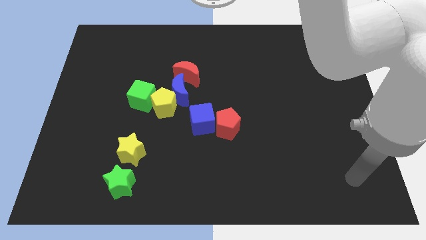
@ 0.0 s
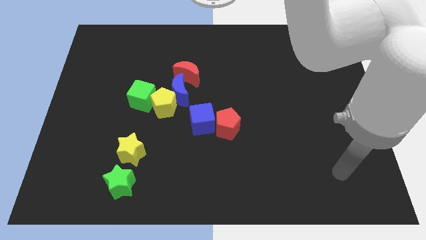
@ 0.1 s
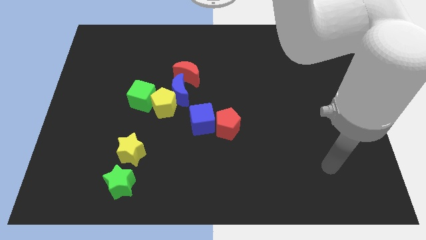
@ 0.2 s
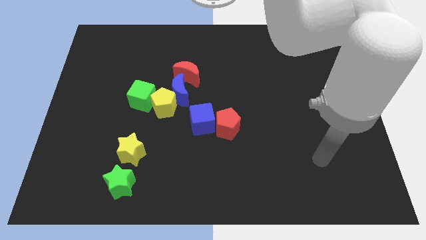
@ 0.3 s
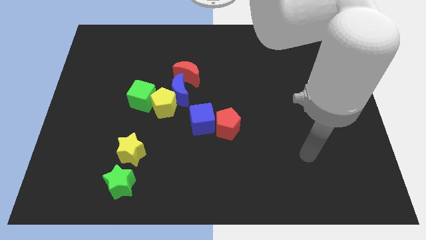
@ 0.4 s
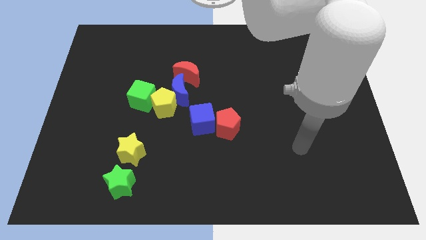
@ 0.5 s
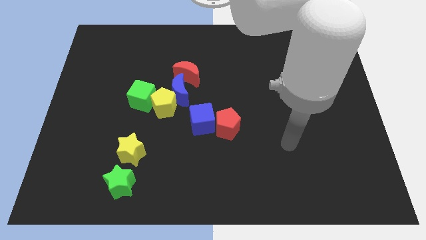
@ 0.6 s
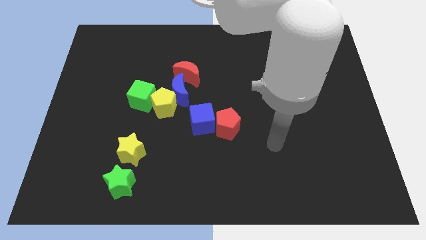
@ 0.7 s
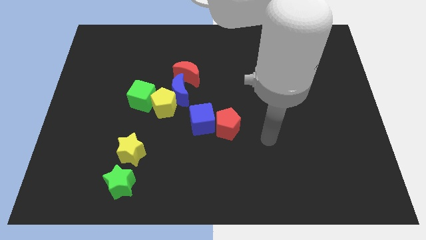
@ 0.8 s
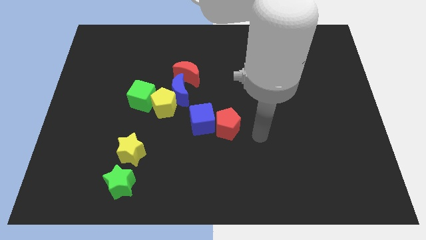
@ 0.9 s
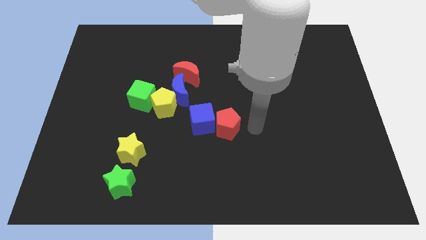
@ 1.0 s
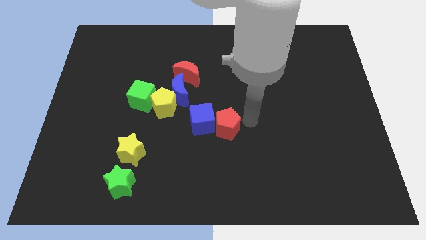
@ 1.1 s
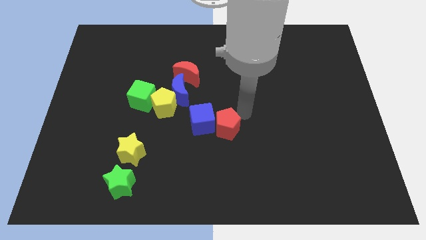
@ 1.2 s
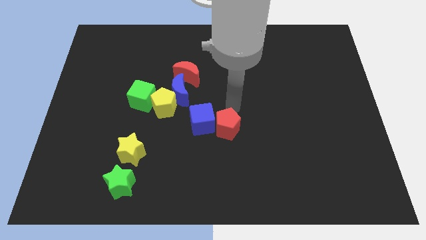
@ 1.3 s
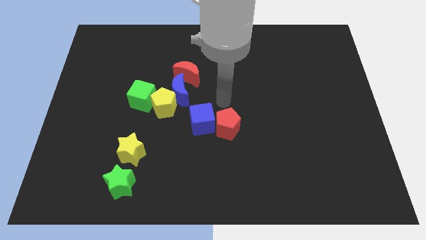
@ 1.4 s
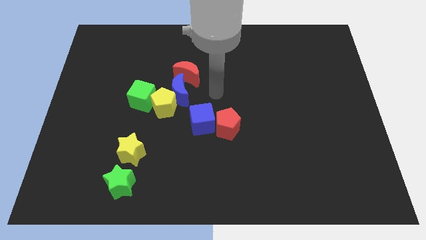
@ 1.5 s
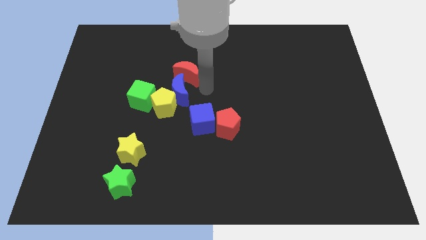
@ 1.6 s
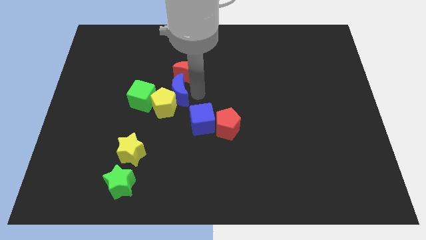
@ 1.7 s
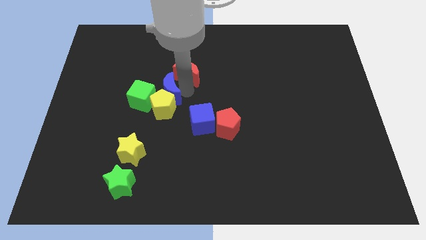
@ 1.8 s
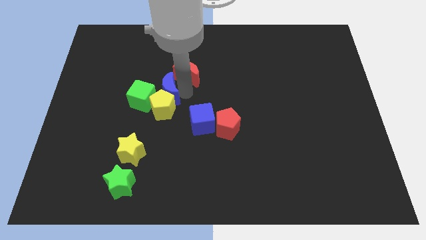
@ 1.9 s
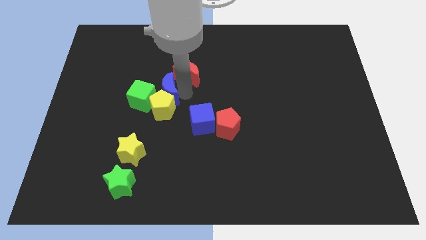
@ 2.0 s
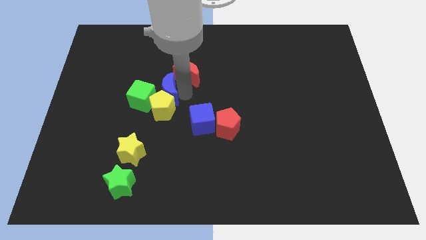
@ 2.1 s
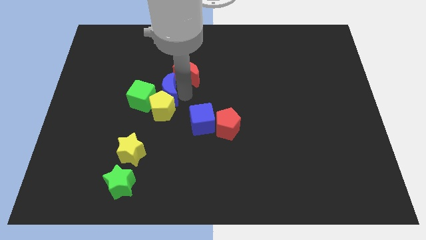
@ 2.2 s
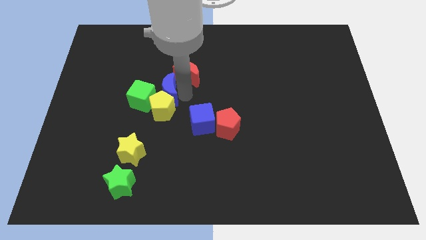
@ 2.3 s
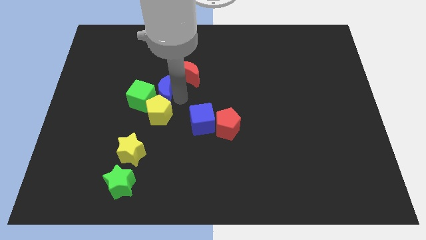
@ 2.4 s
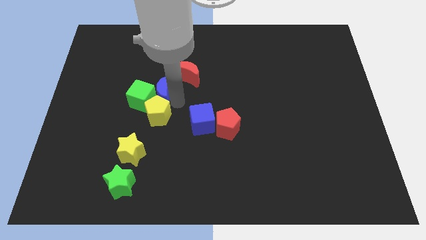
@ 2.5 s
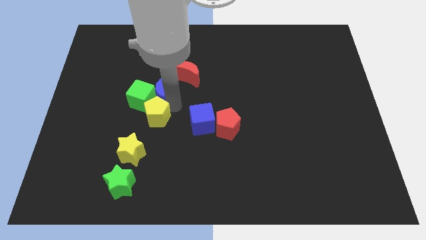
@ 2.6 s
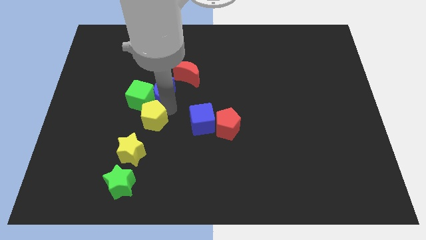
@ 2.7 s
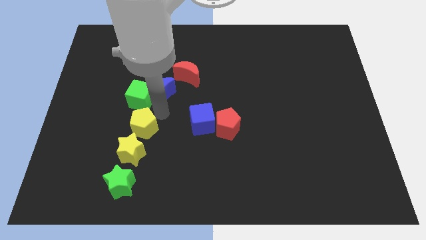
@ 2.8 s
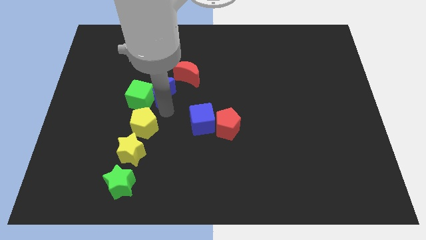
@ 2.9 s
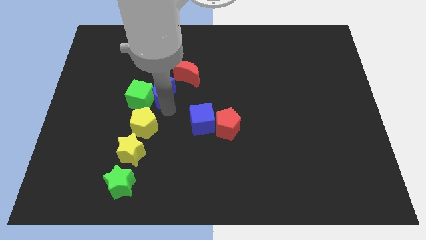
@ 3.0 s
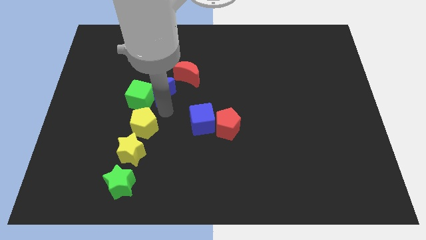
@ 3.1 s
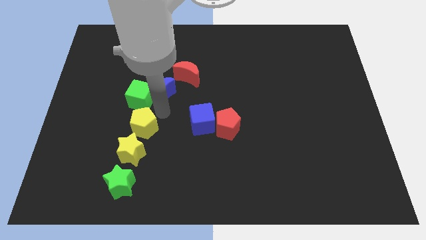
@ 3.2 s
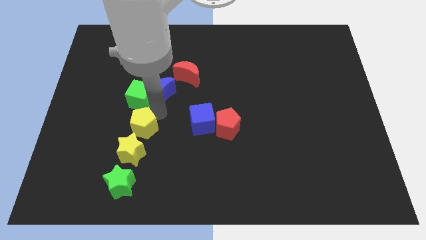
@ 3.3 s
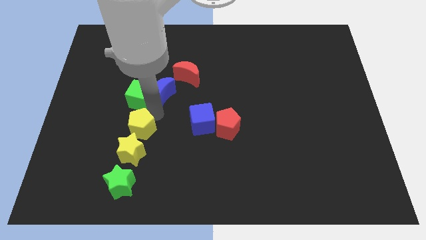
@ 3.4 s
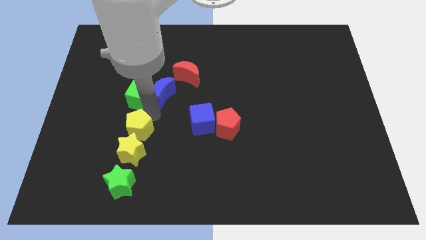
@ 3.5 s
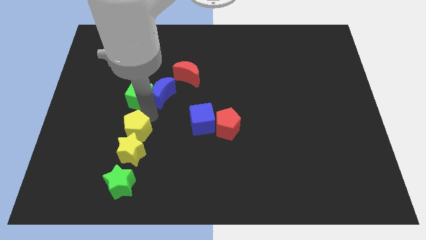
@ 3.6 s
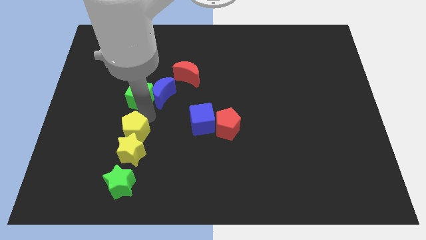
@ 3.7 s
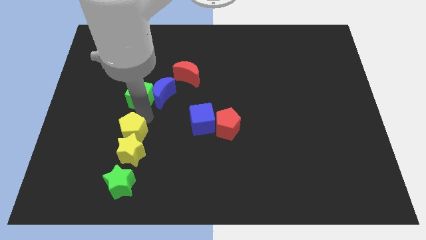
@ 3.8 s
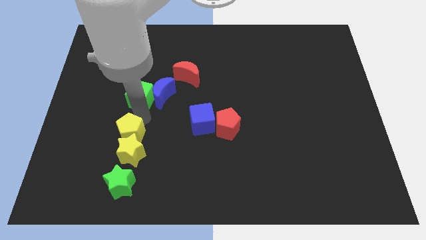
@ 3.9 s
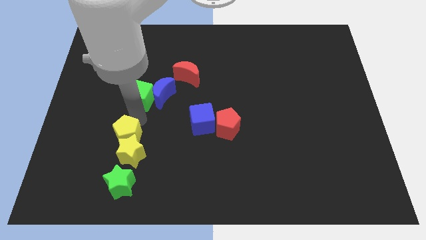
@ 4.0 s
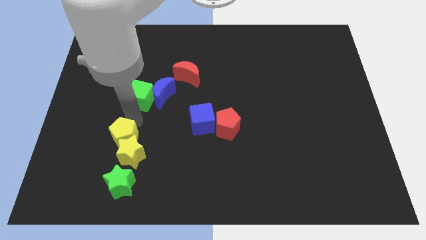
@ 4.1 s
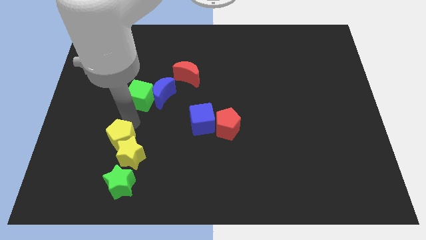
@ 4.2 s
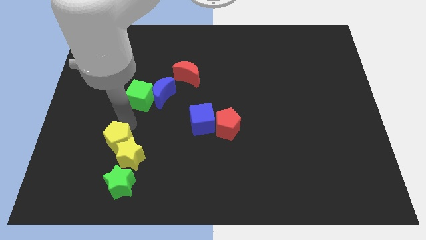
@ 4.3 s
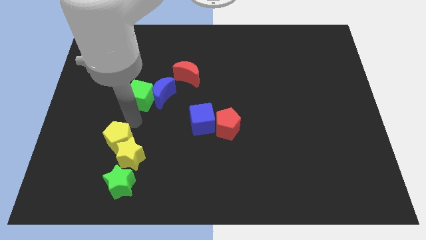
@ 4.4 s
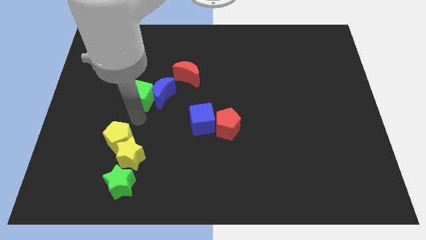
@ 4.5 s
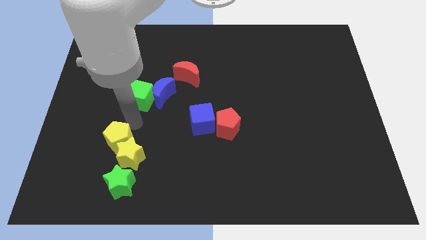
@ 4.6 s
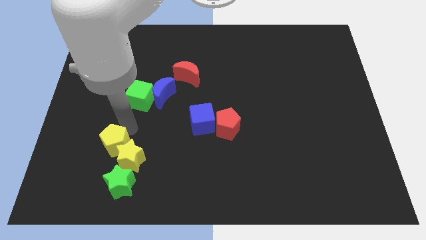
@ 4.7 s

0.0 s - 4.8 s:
slide the yellow pentagon to the top left side of the green star

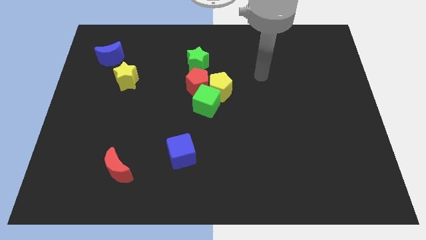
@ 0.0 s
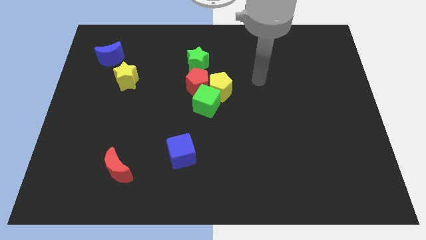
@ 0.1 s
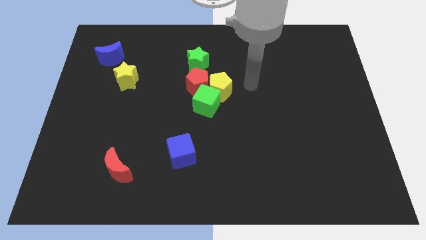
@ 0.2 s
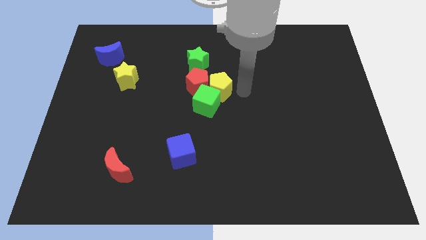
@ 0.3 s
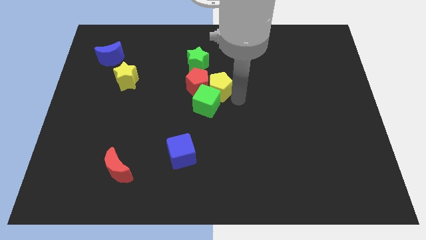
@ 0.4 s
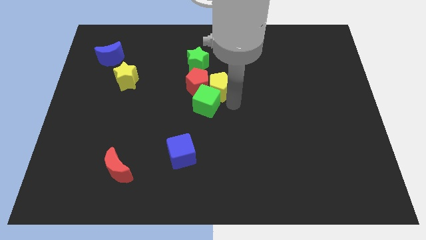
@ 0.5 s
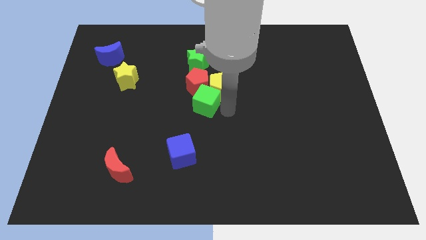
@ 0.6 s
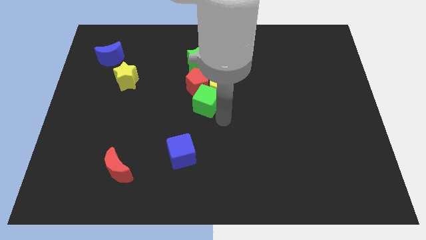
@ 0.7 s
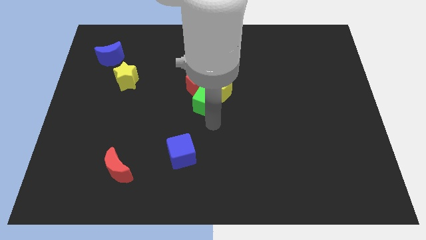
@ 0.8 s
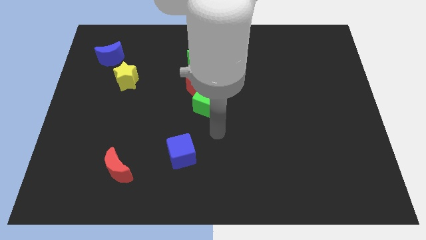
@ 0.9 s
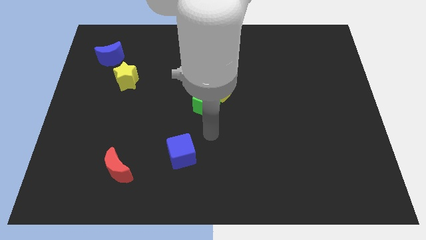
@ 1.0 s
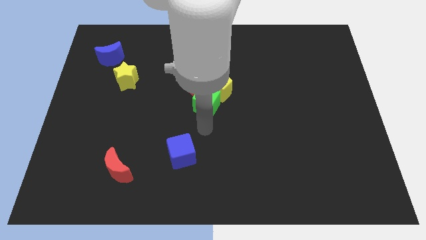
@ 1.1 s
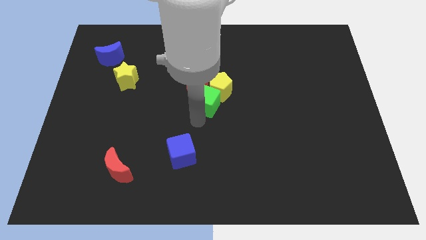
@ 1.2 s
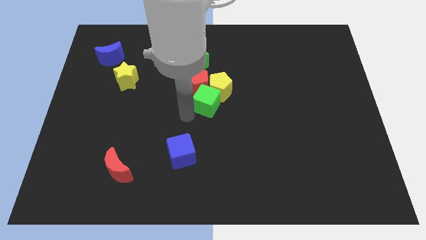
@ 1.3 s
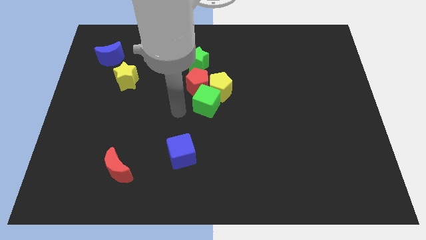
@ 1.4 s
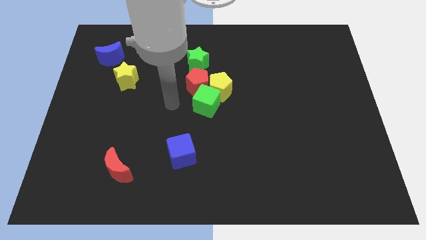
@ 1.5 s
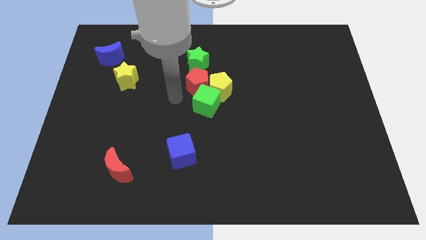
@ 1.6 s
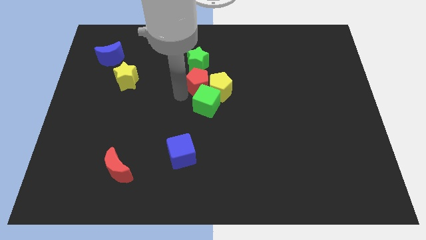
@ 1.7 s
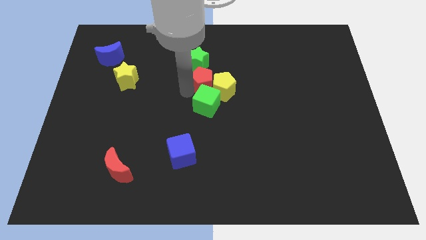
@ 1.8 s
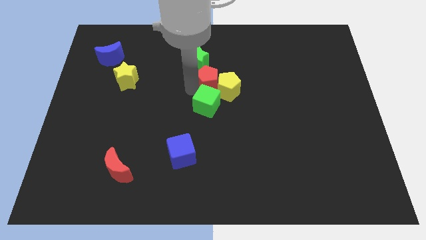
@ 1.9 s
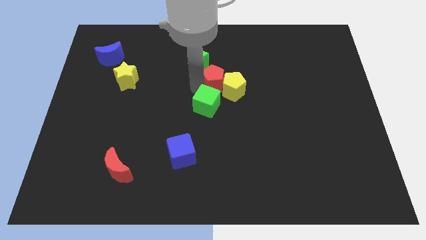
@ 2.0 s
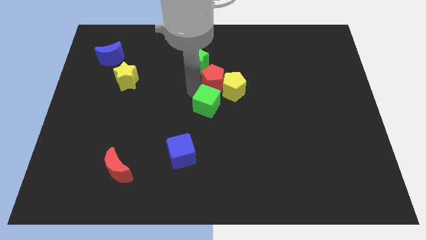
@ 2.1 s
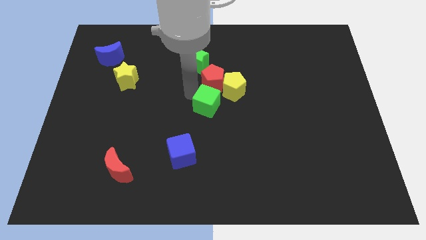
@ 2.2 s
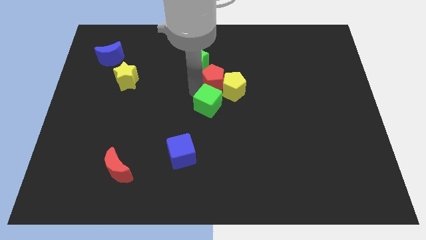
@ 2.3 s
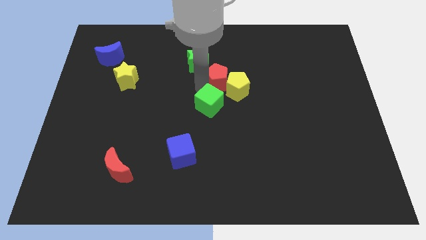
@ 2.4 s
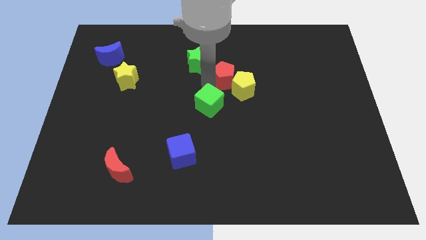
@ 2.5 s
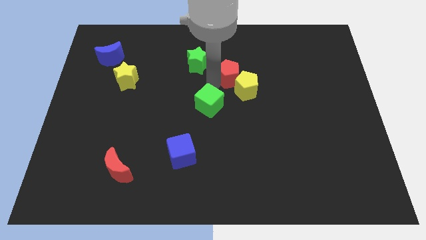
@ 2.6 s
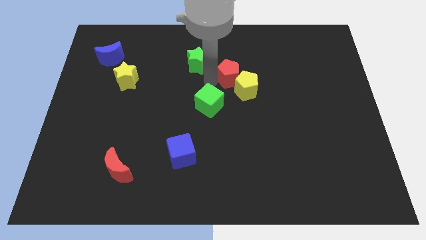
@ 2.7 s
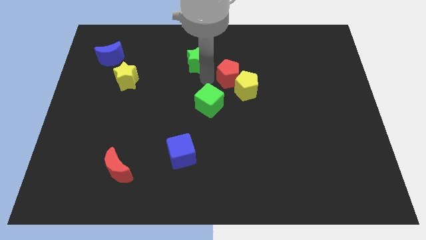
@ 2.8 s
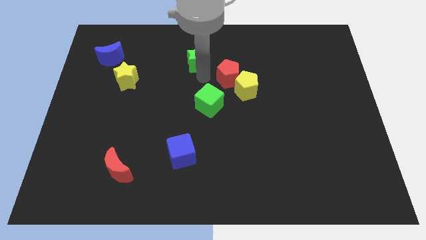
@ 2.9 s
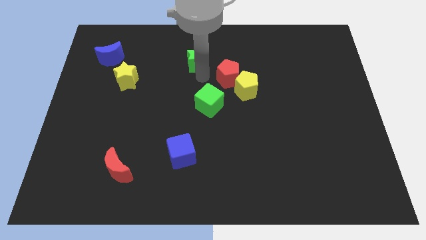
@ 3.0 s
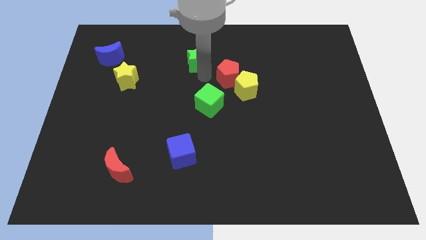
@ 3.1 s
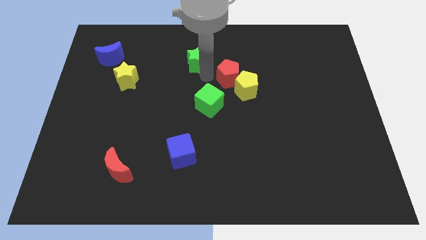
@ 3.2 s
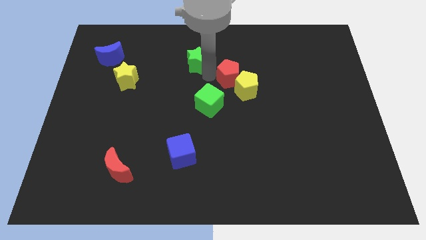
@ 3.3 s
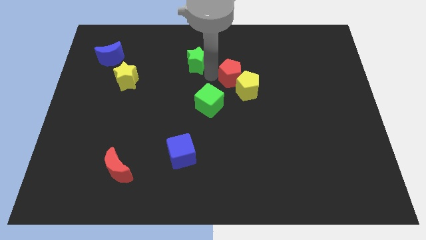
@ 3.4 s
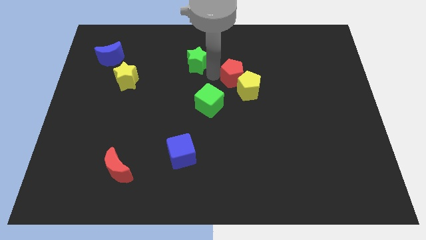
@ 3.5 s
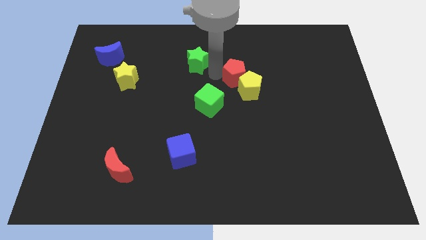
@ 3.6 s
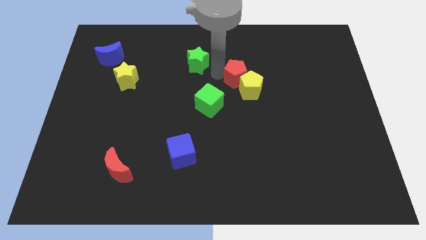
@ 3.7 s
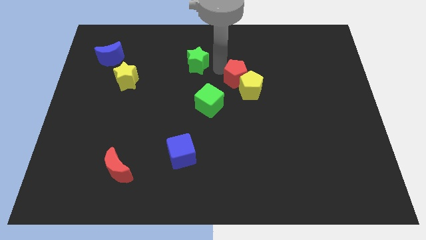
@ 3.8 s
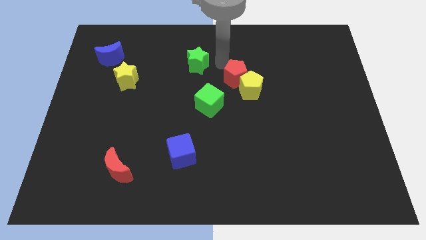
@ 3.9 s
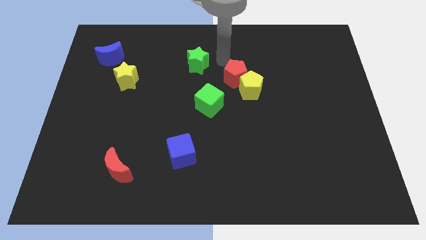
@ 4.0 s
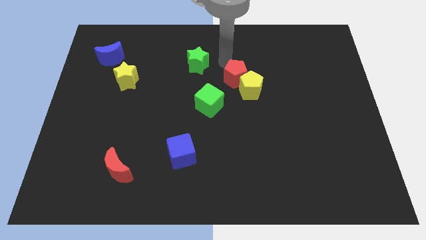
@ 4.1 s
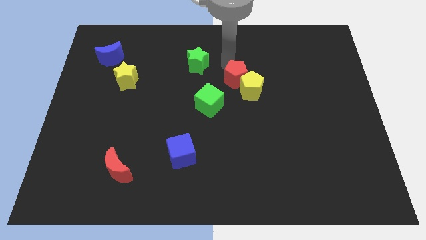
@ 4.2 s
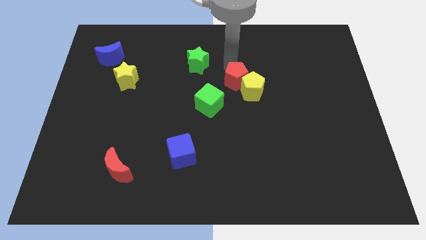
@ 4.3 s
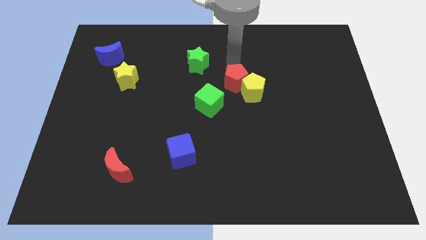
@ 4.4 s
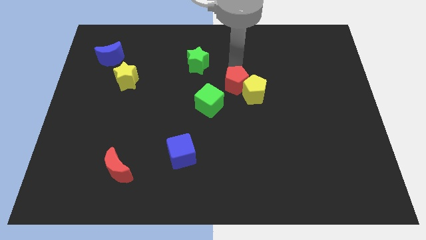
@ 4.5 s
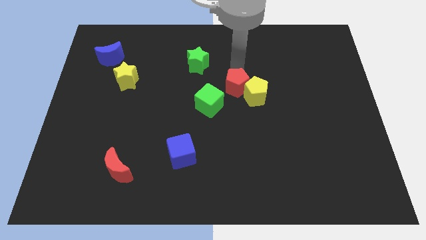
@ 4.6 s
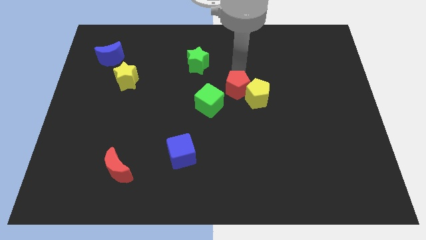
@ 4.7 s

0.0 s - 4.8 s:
push the red pentagon to the right side of the green cube
